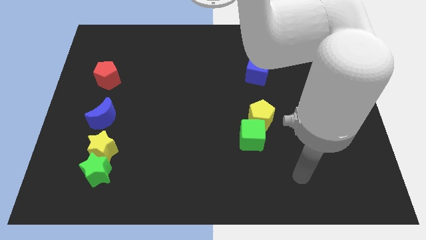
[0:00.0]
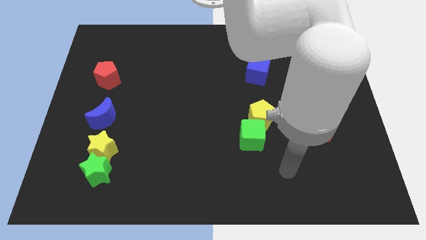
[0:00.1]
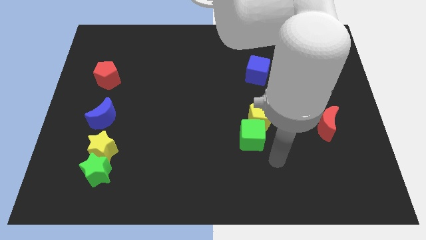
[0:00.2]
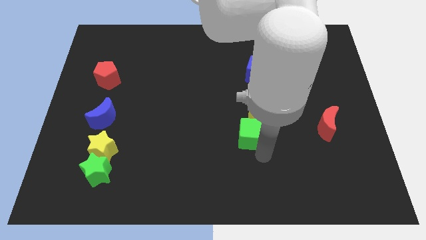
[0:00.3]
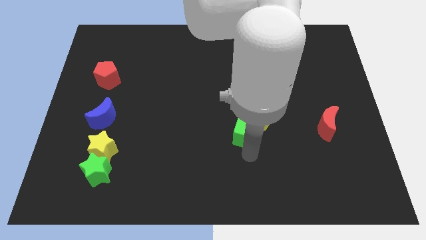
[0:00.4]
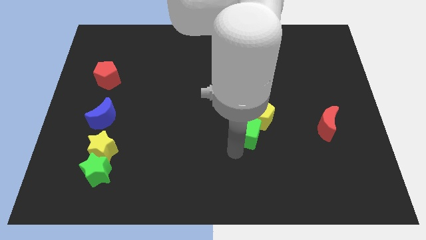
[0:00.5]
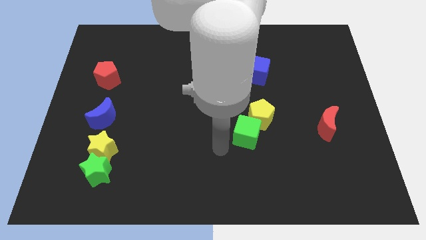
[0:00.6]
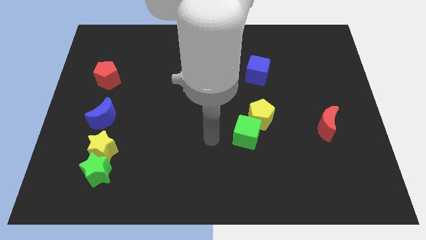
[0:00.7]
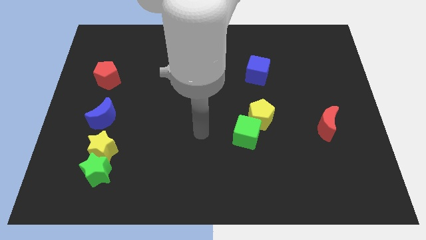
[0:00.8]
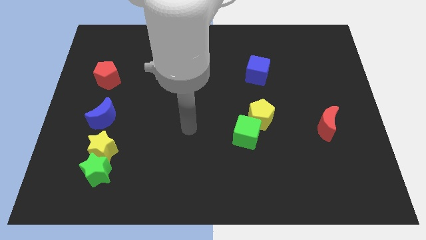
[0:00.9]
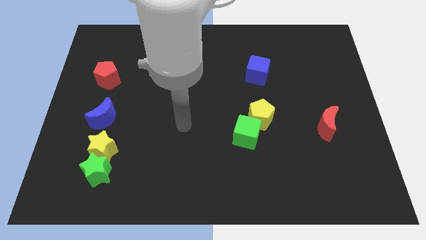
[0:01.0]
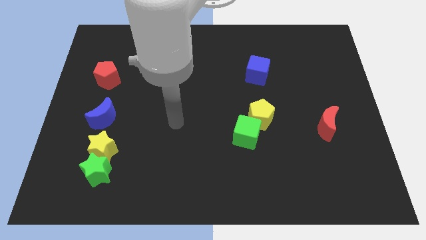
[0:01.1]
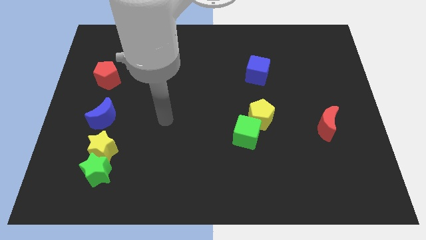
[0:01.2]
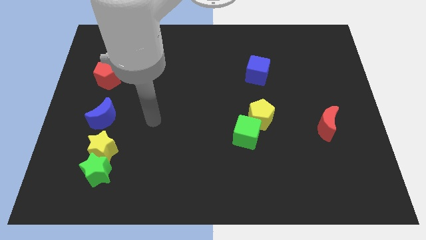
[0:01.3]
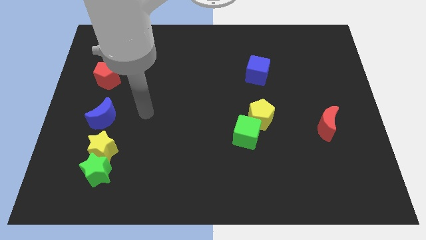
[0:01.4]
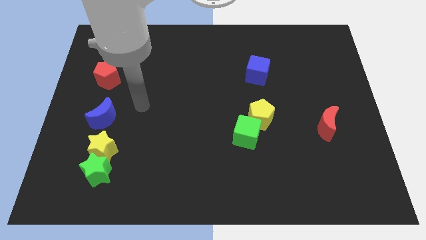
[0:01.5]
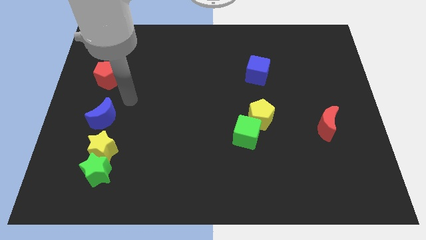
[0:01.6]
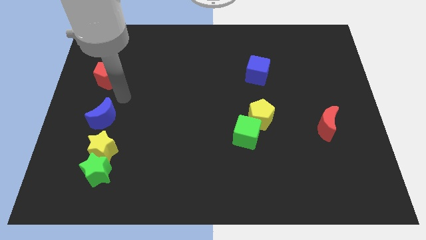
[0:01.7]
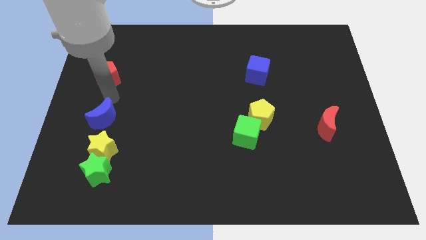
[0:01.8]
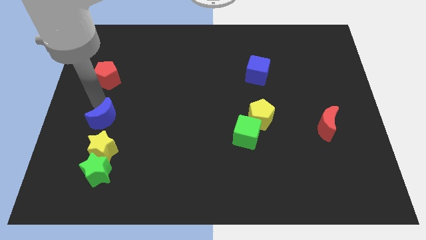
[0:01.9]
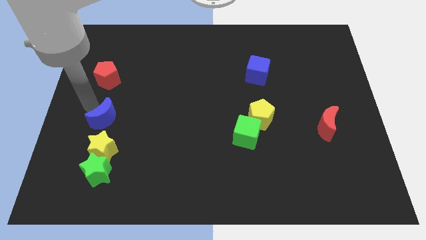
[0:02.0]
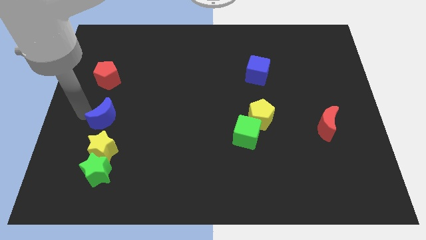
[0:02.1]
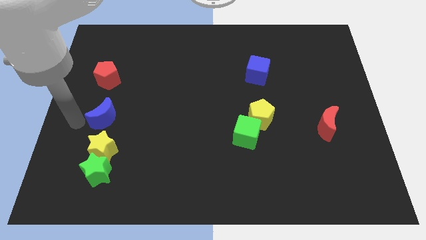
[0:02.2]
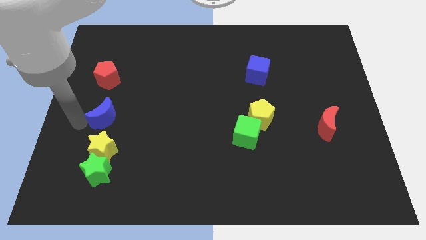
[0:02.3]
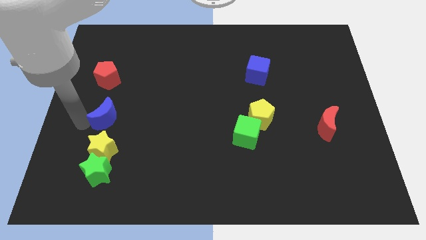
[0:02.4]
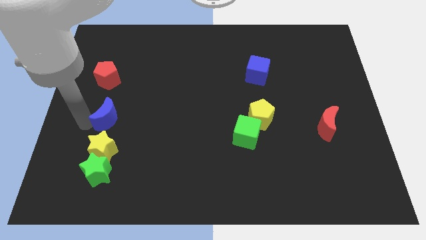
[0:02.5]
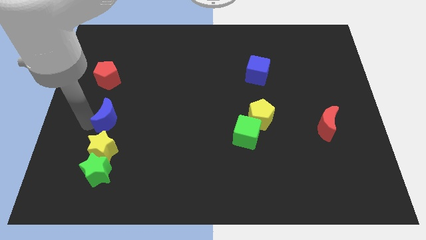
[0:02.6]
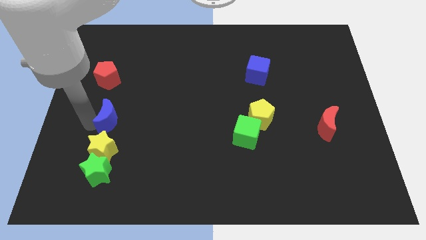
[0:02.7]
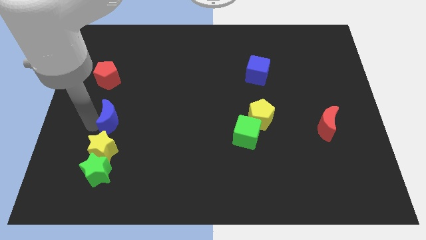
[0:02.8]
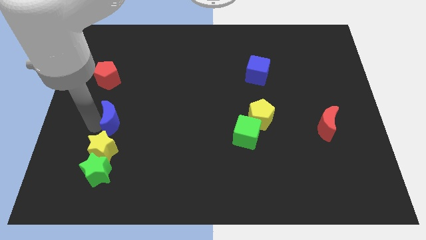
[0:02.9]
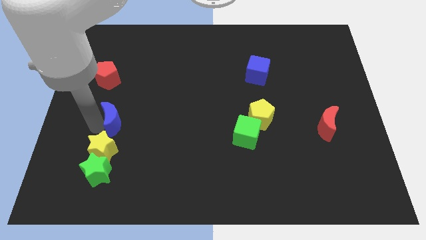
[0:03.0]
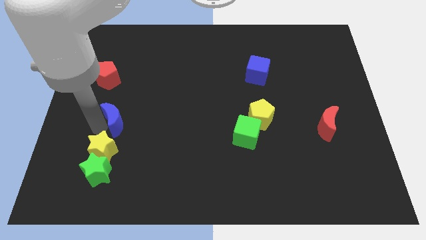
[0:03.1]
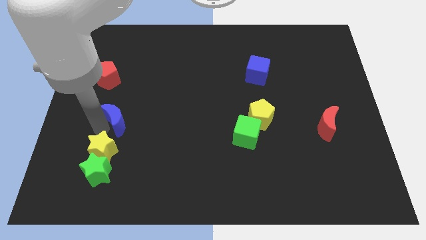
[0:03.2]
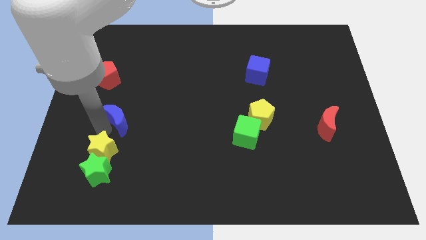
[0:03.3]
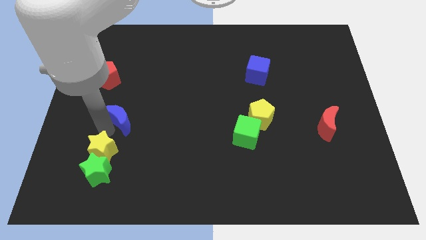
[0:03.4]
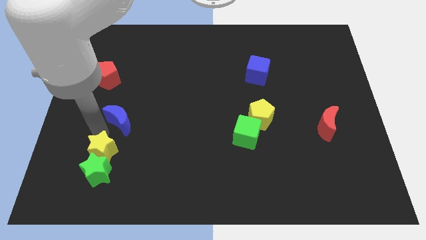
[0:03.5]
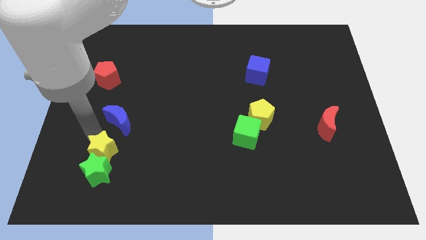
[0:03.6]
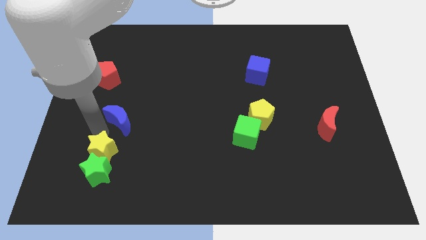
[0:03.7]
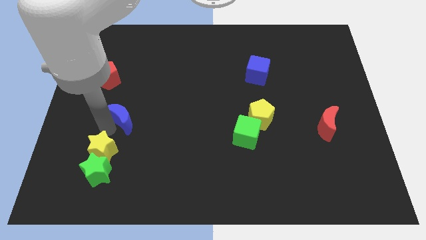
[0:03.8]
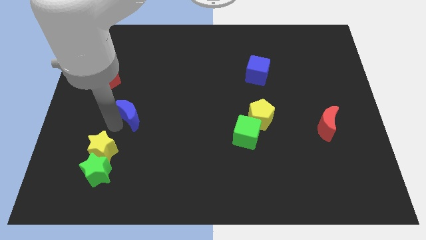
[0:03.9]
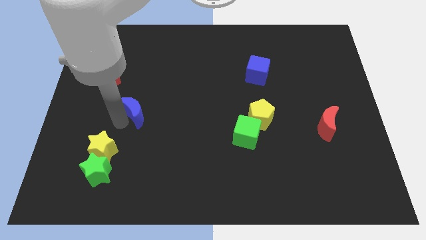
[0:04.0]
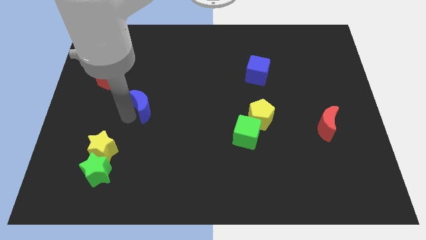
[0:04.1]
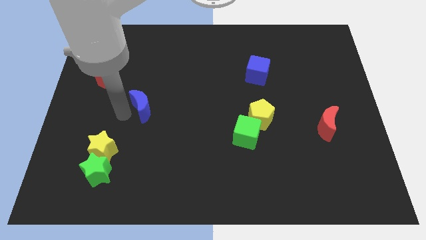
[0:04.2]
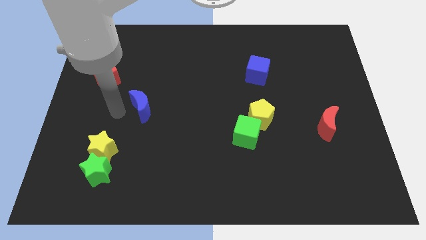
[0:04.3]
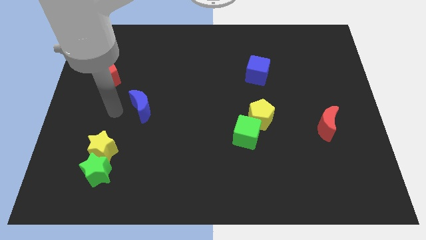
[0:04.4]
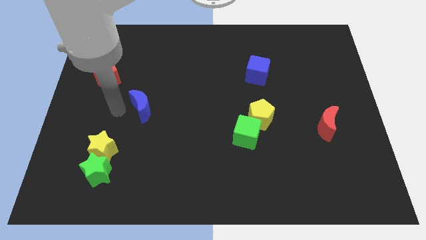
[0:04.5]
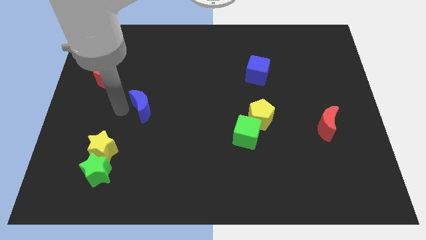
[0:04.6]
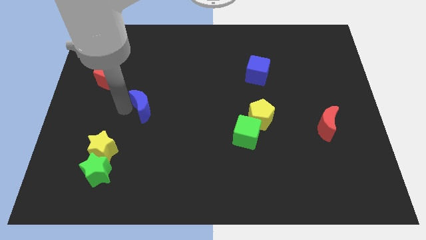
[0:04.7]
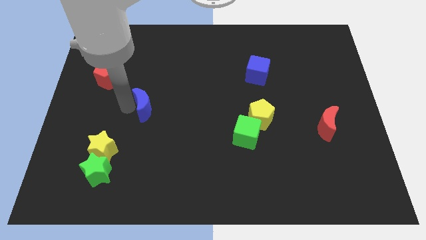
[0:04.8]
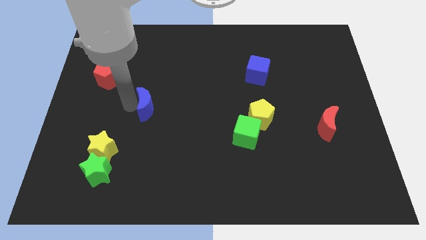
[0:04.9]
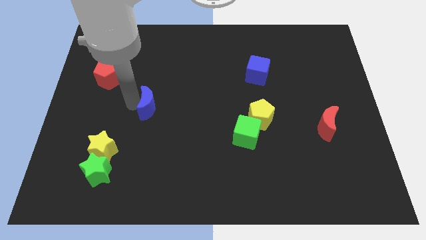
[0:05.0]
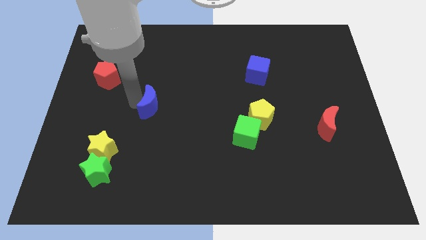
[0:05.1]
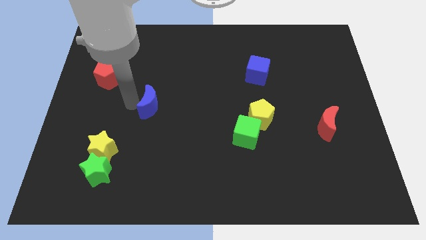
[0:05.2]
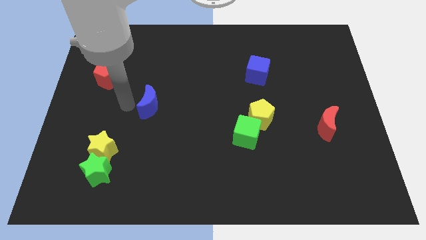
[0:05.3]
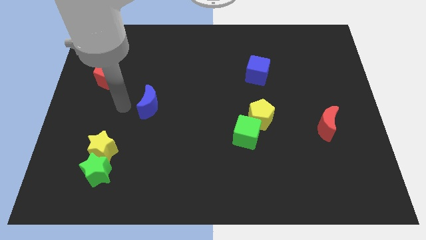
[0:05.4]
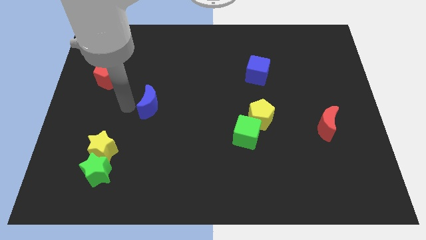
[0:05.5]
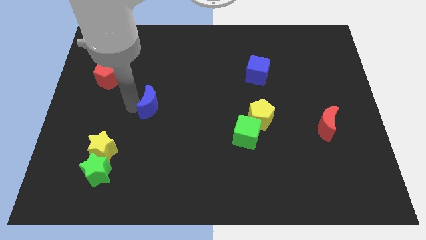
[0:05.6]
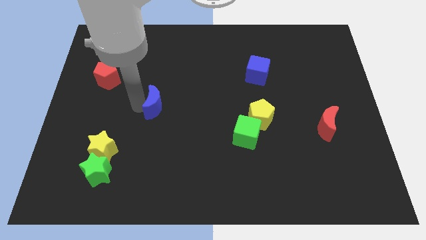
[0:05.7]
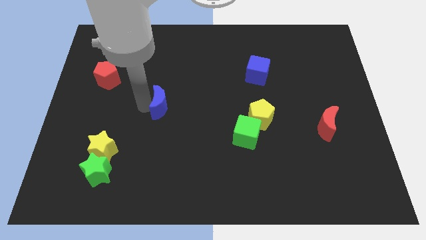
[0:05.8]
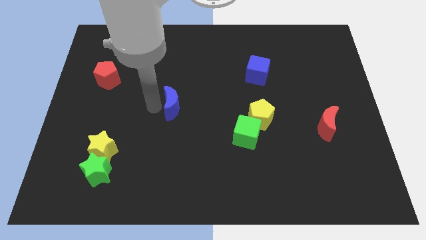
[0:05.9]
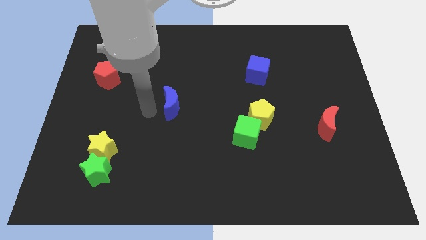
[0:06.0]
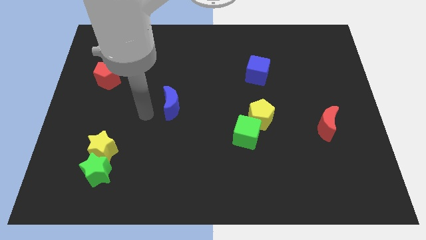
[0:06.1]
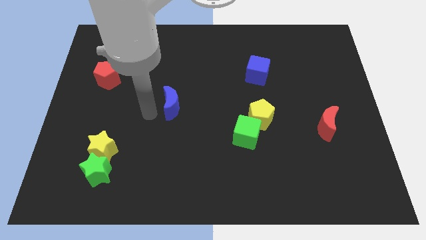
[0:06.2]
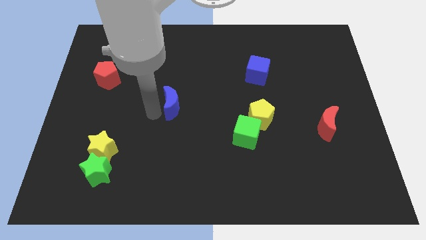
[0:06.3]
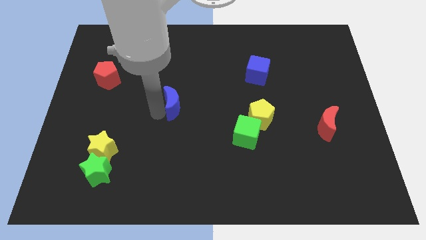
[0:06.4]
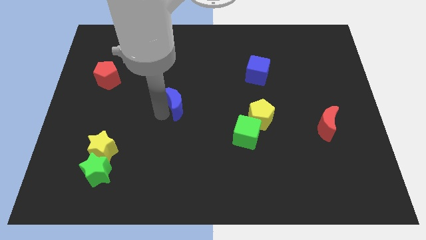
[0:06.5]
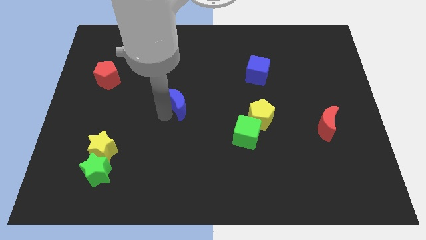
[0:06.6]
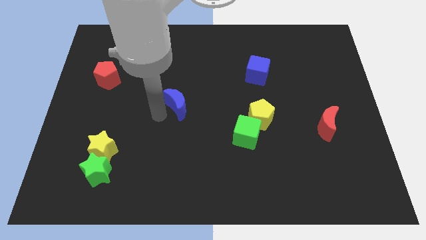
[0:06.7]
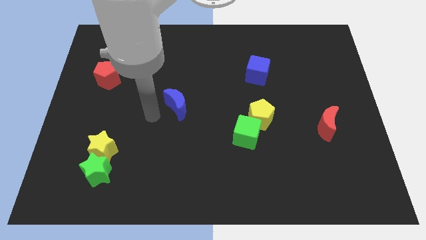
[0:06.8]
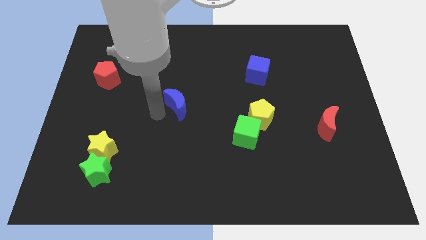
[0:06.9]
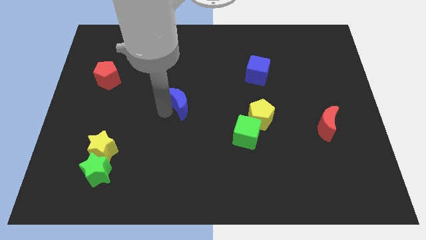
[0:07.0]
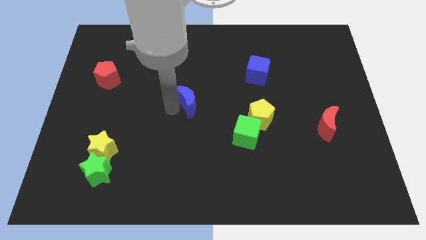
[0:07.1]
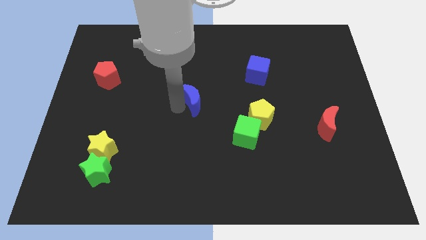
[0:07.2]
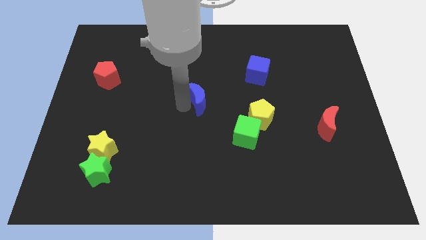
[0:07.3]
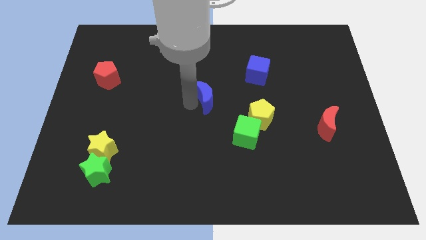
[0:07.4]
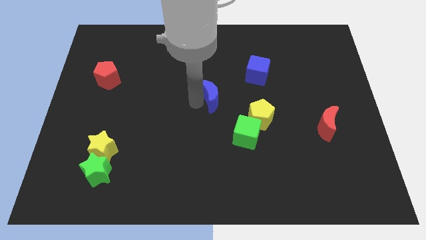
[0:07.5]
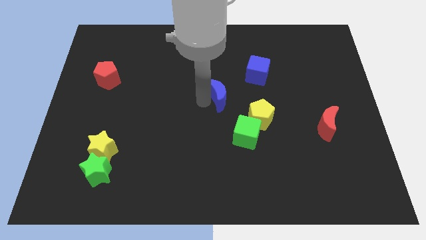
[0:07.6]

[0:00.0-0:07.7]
put the blue moon diagonally down and to the left of the blue cube
